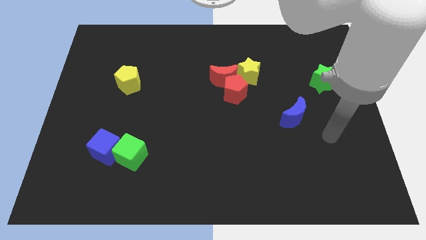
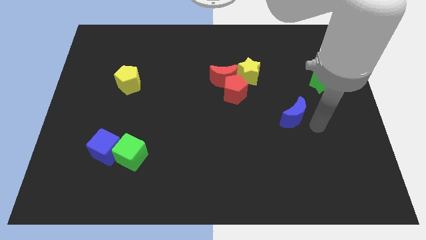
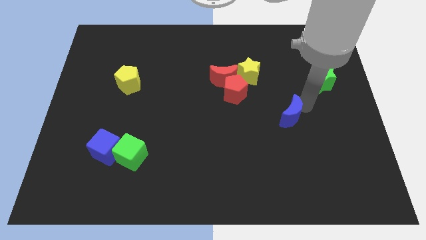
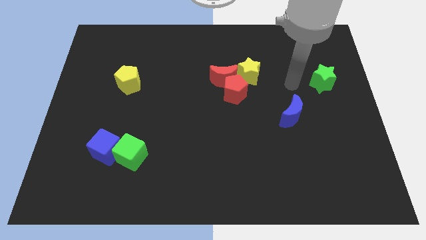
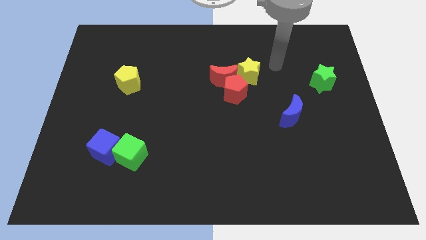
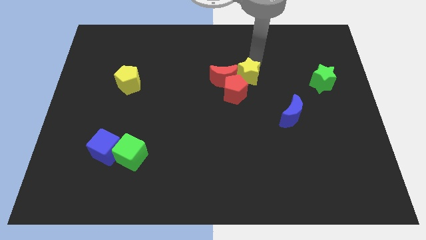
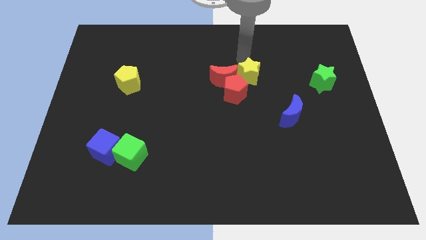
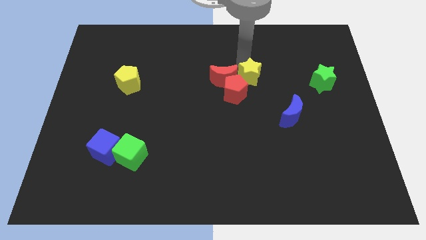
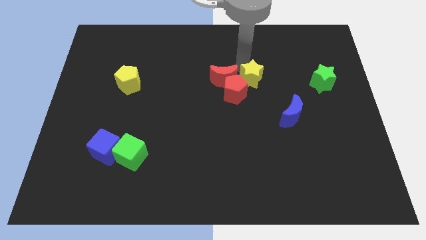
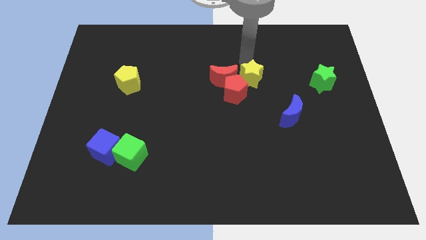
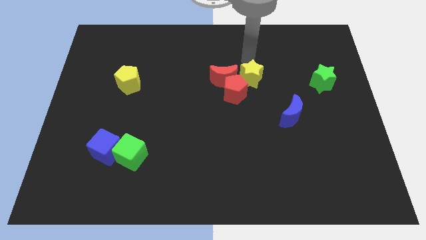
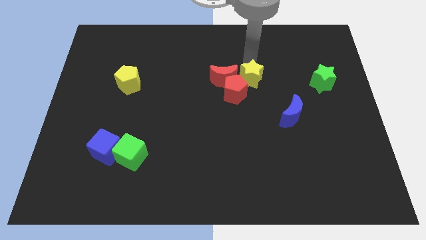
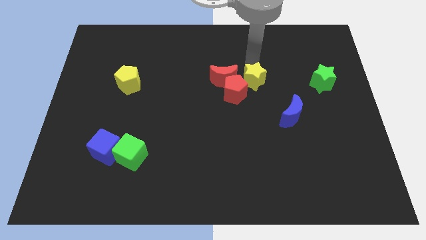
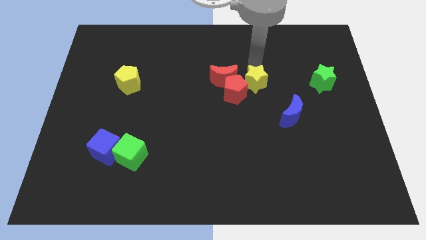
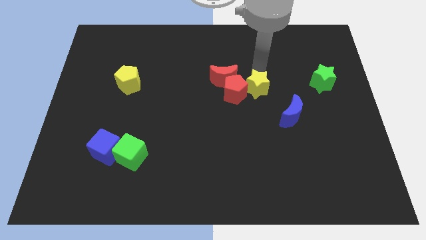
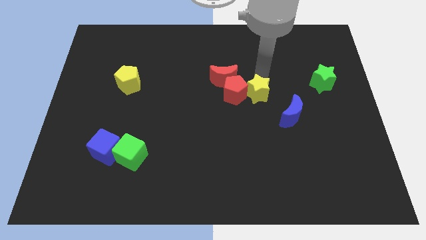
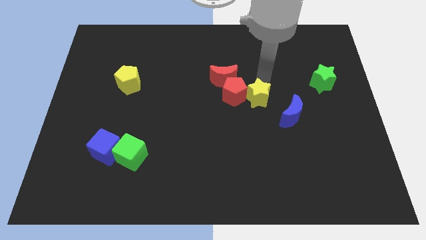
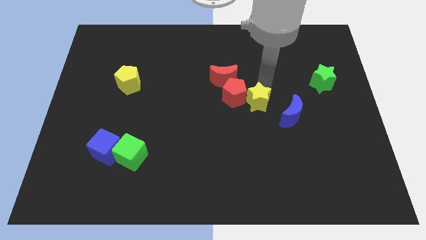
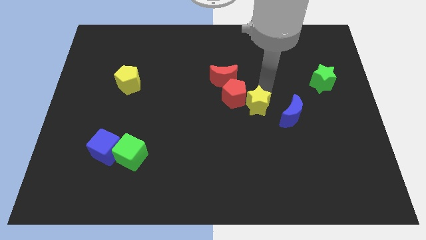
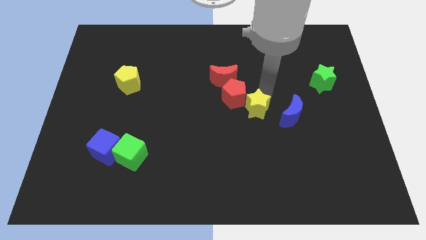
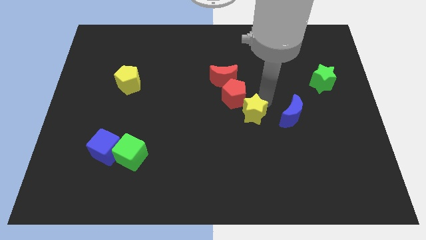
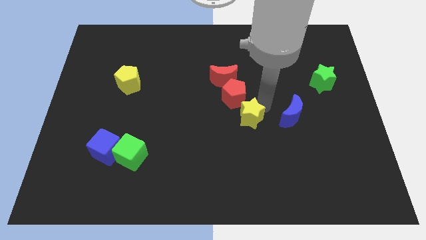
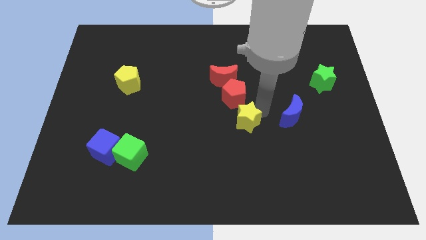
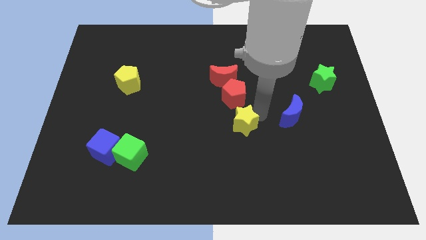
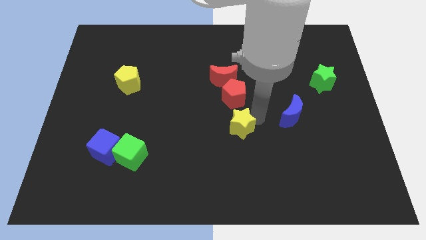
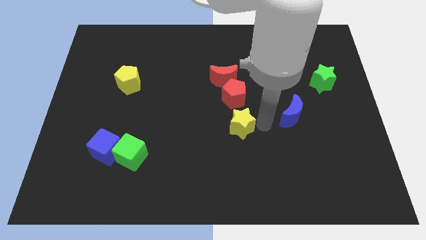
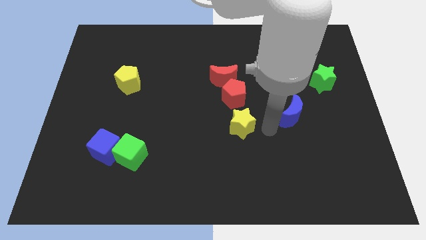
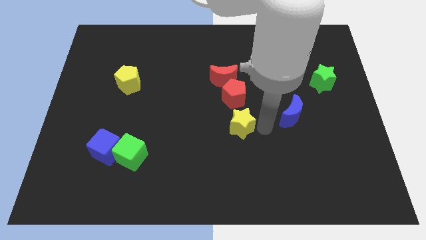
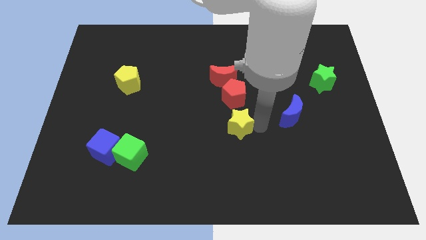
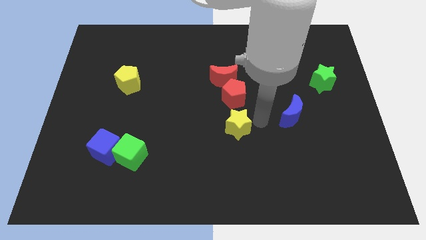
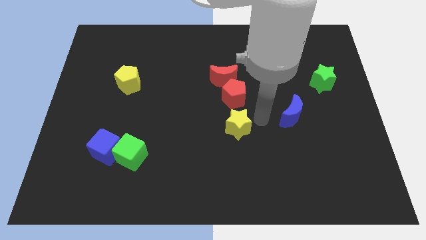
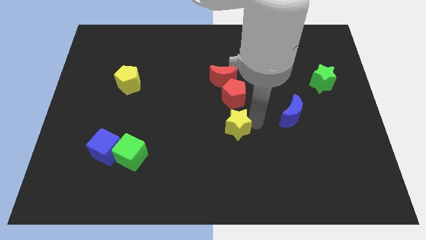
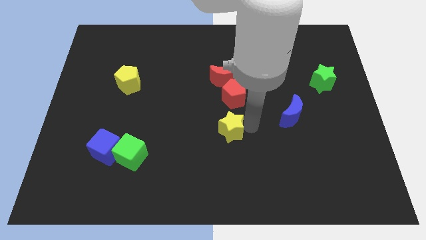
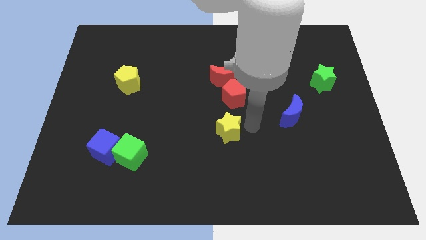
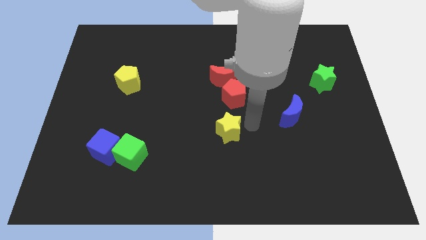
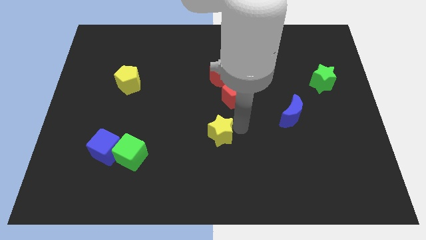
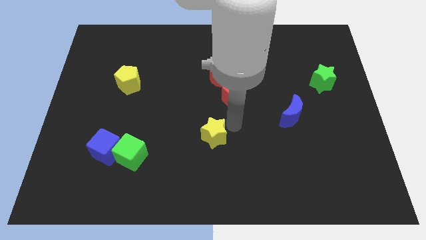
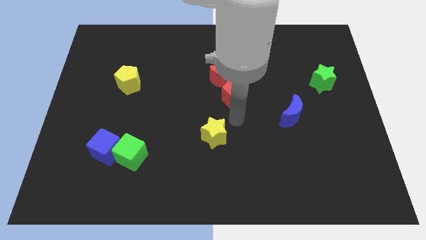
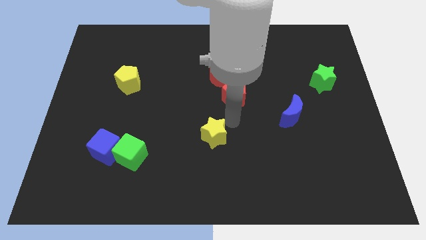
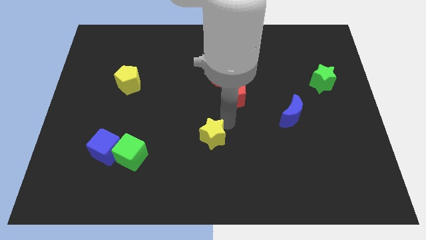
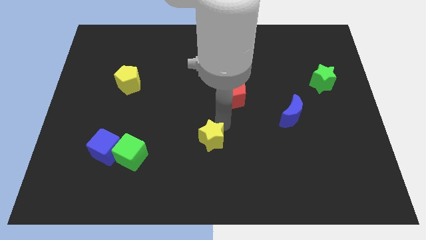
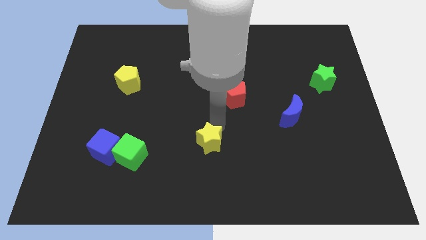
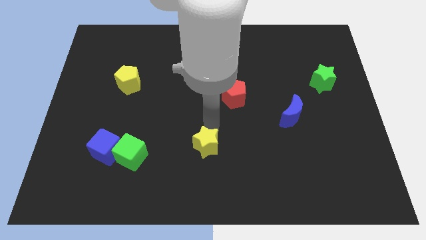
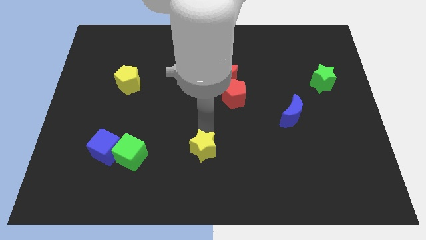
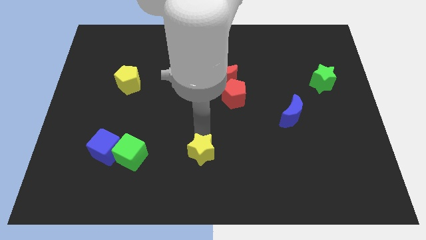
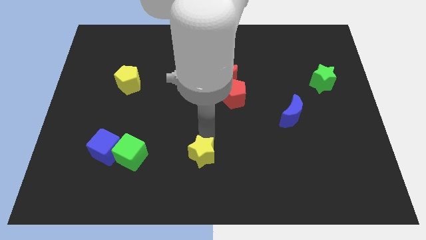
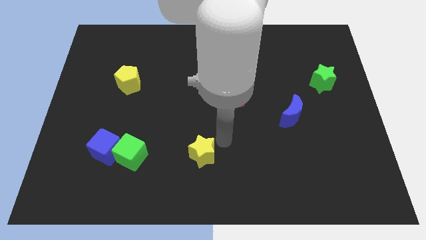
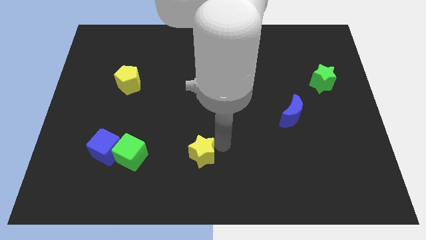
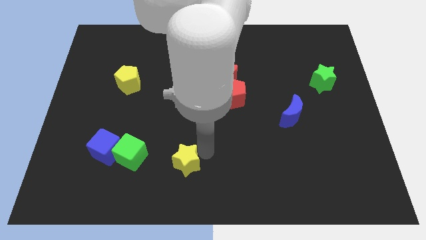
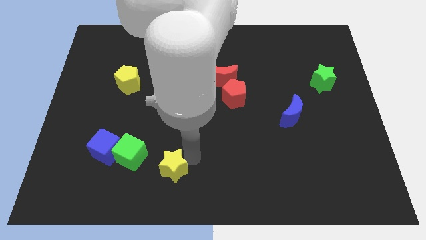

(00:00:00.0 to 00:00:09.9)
put the yellow star diagonally down and to the right of the green cube

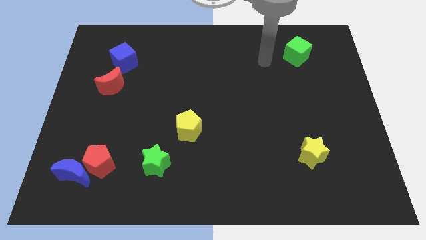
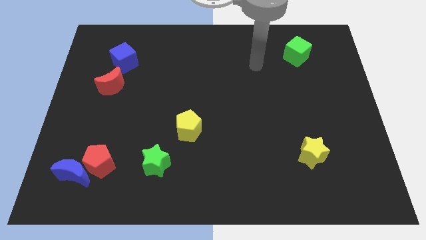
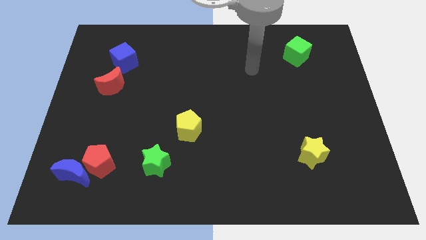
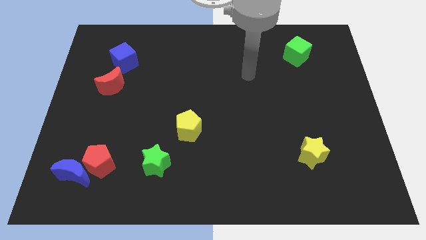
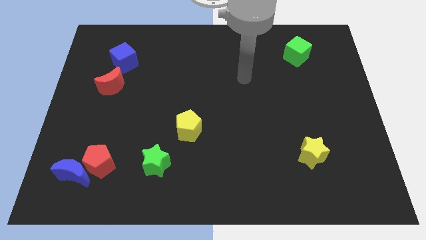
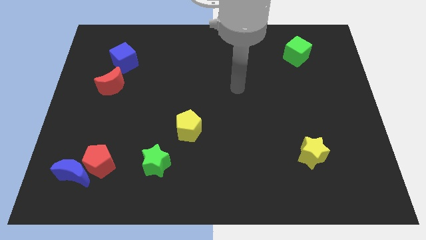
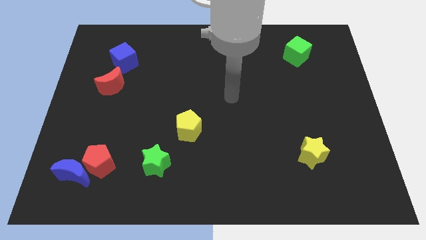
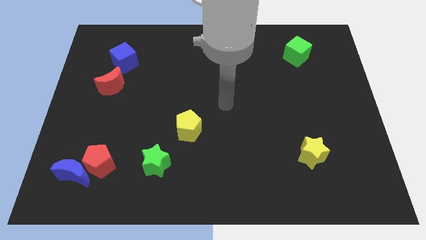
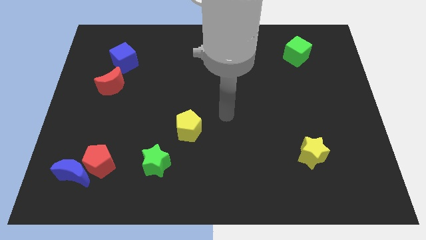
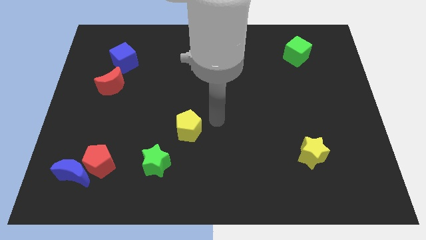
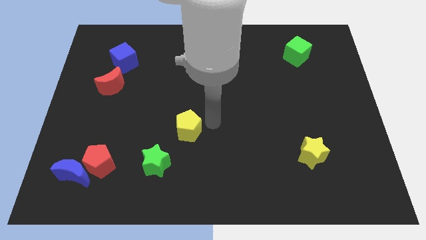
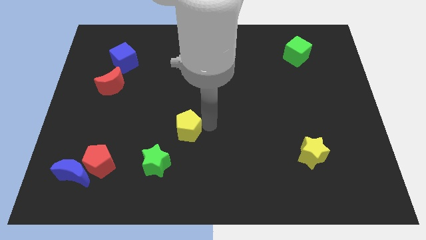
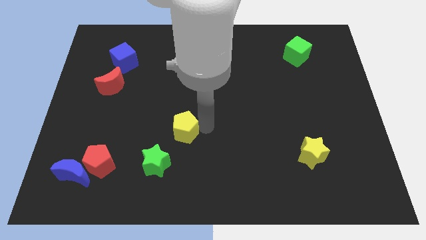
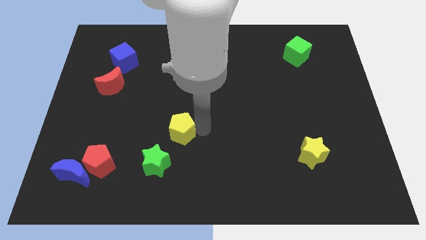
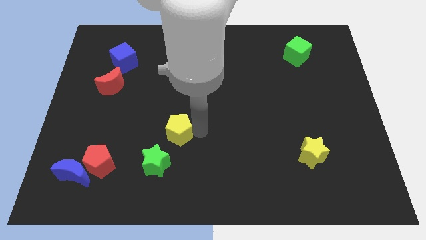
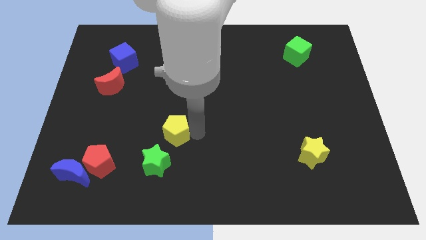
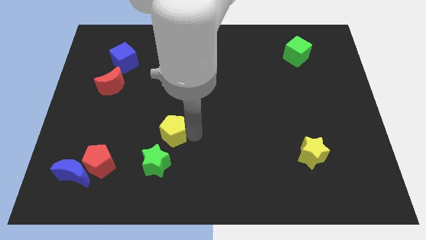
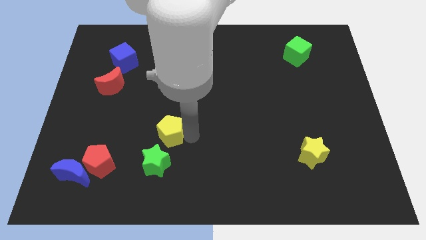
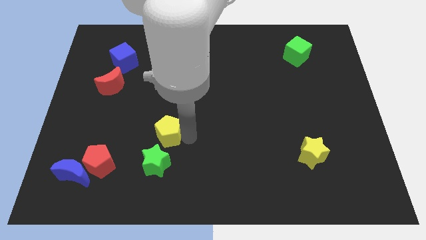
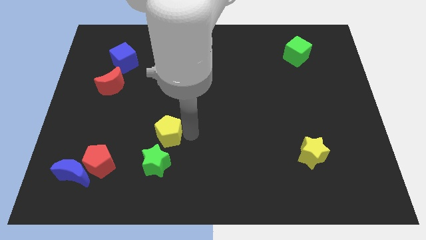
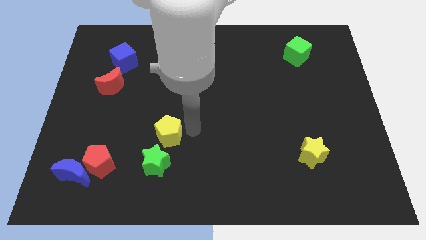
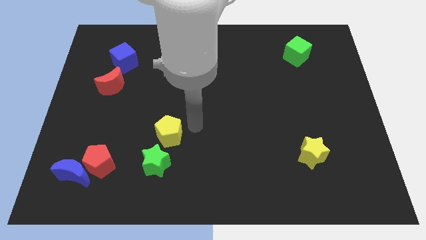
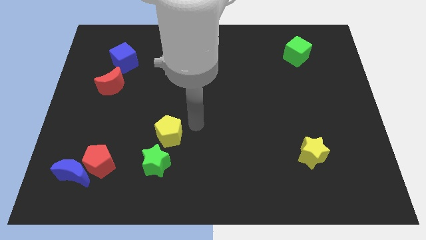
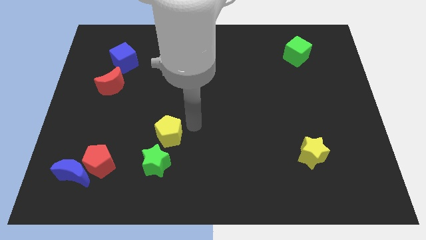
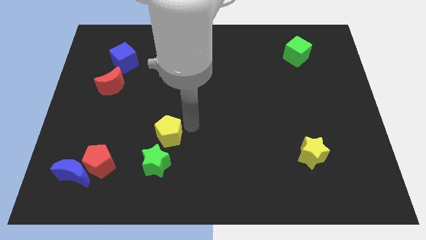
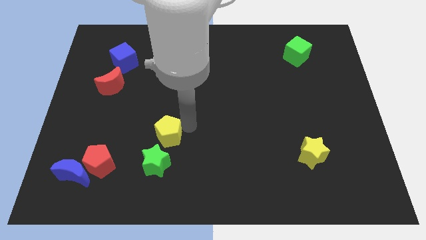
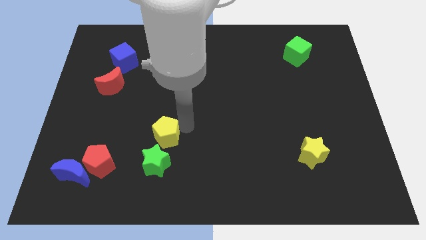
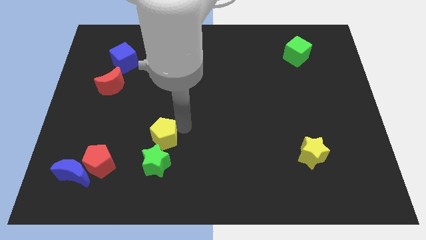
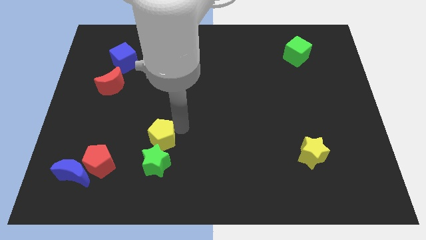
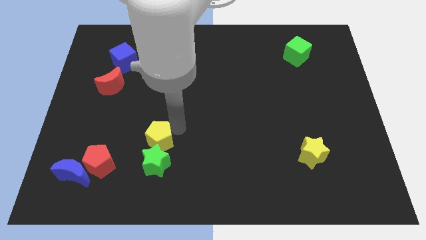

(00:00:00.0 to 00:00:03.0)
move the yellow pentagon to the top left of the green star

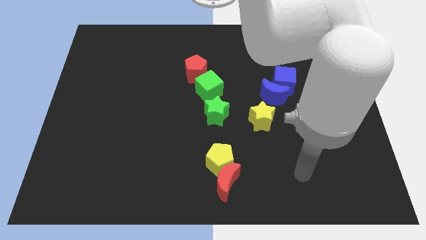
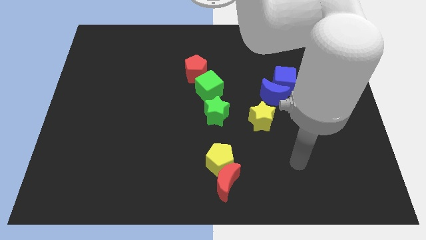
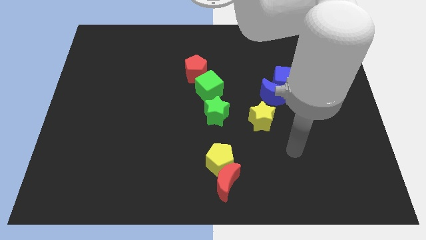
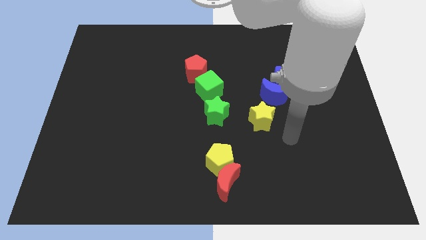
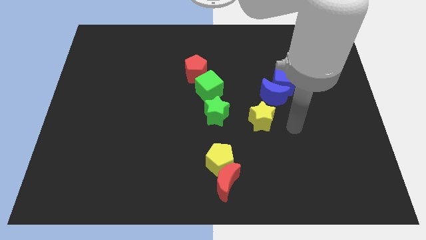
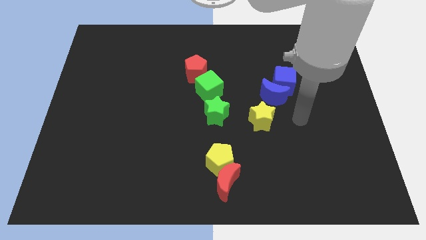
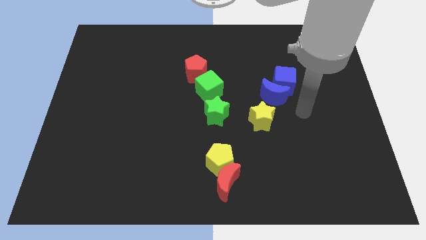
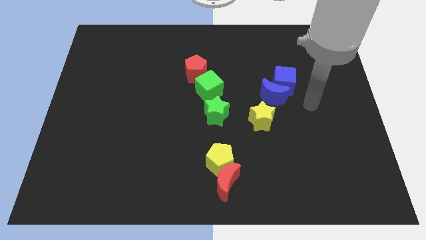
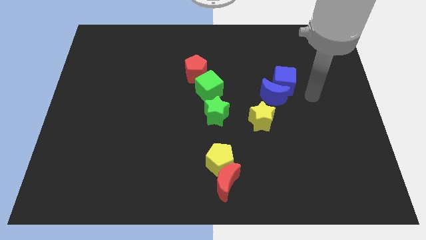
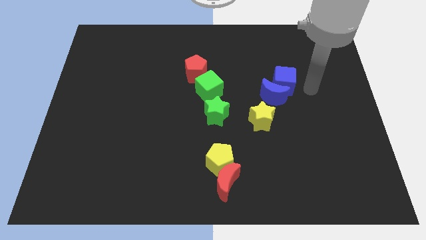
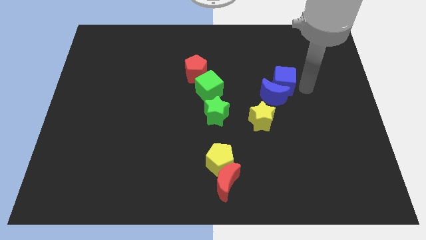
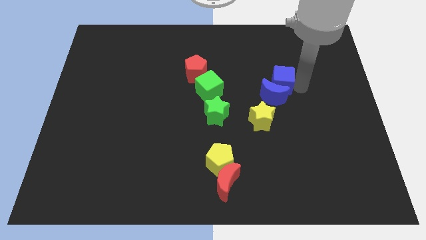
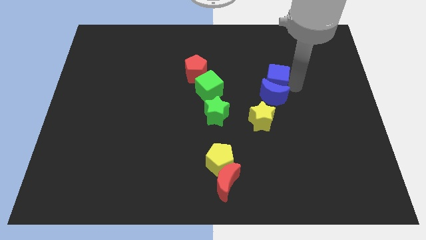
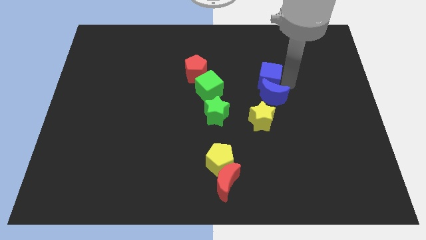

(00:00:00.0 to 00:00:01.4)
move the blue cube right of the green cube
